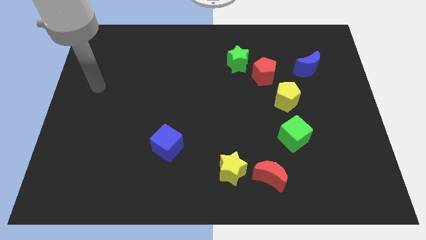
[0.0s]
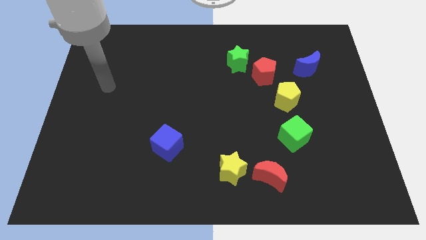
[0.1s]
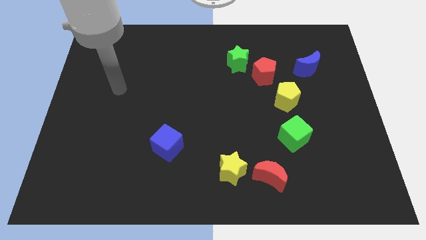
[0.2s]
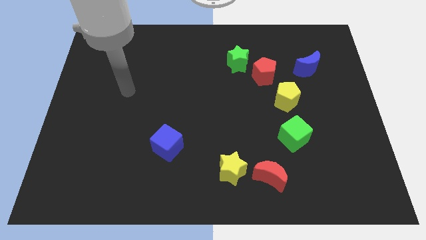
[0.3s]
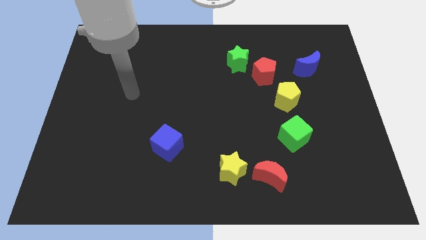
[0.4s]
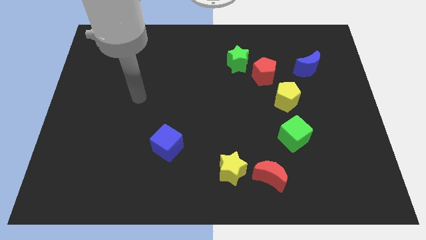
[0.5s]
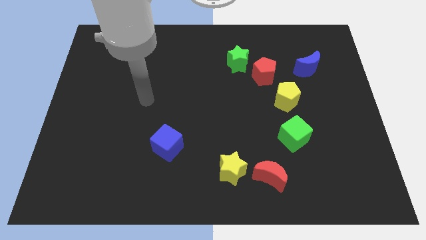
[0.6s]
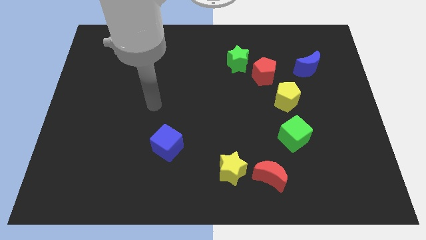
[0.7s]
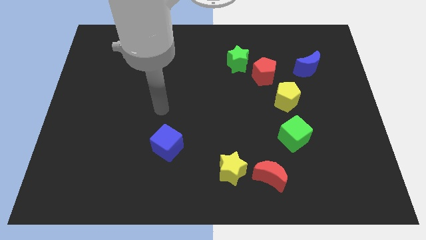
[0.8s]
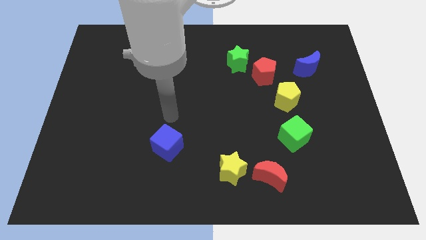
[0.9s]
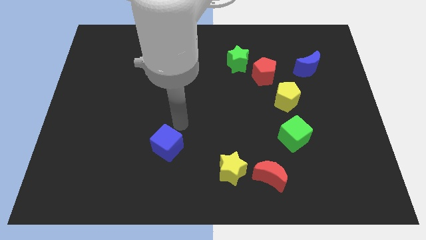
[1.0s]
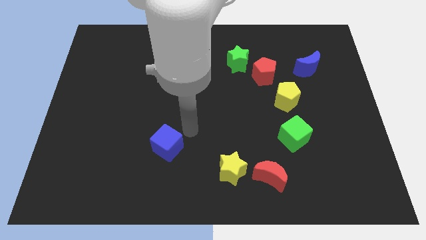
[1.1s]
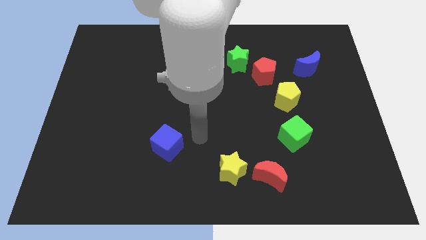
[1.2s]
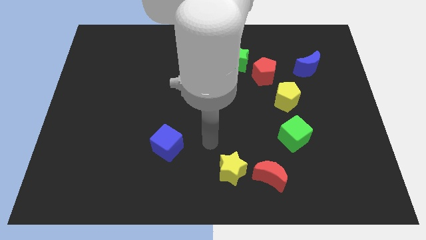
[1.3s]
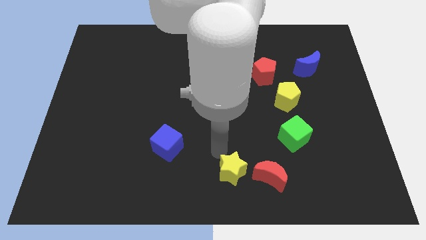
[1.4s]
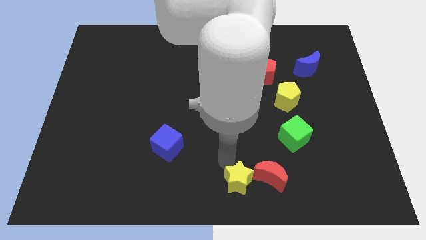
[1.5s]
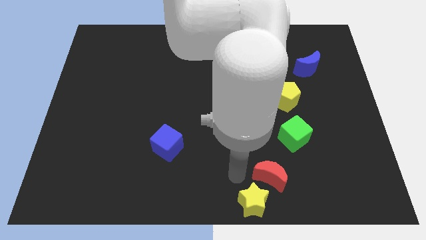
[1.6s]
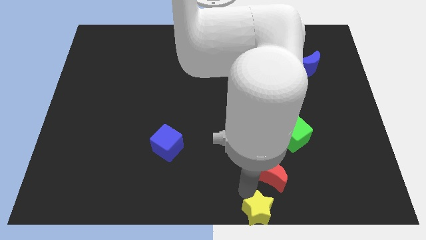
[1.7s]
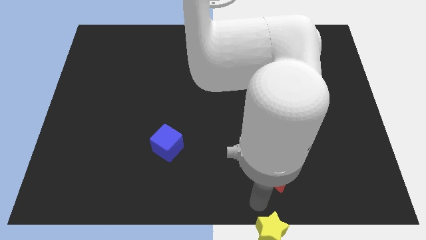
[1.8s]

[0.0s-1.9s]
move the red moon away from the yellow star

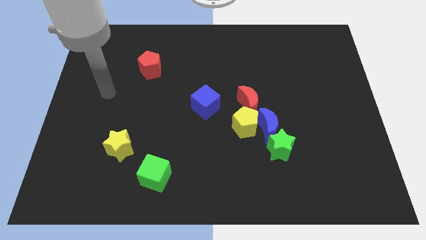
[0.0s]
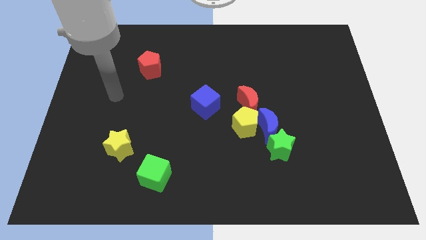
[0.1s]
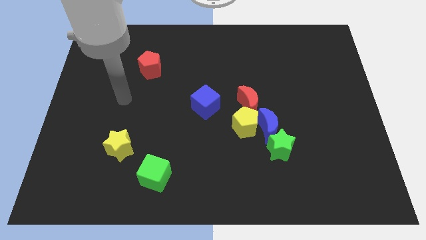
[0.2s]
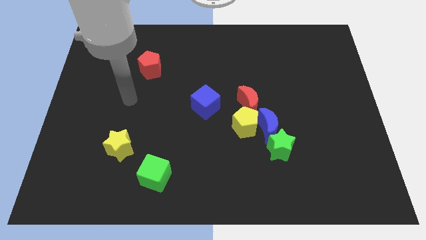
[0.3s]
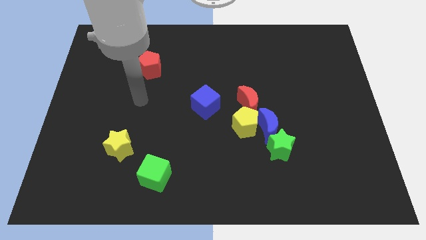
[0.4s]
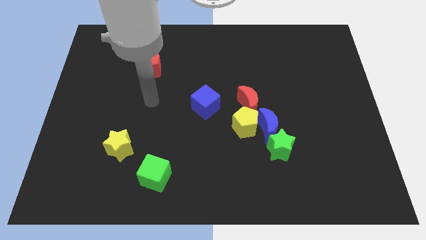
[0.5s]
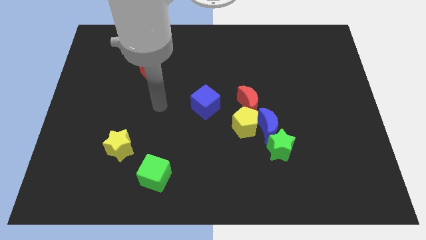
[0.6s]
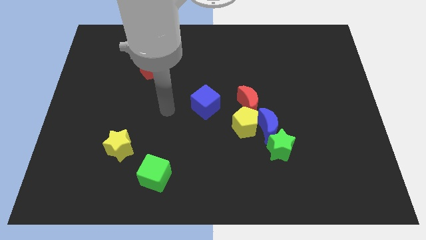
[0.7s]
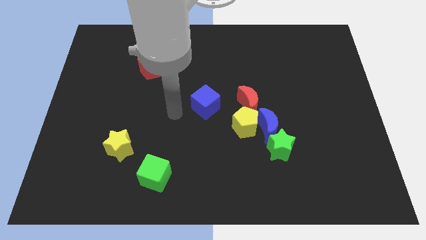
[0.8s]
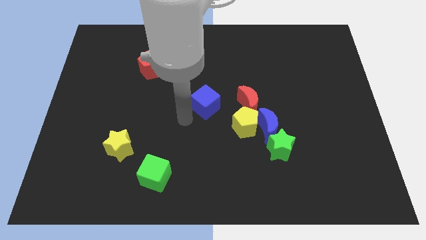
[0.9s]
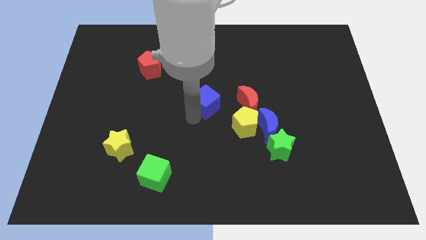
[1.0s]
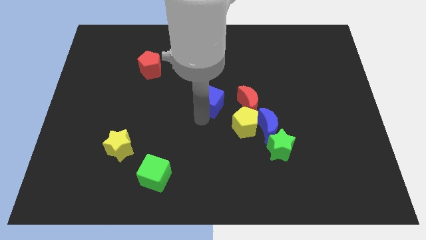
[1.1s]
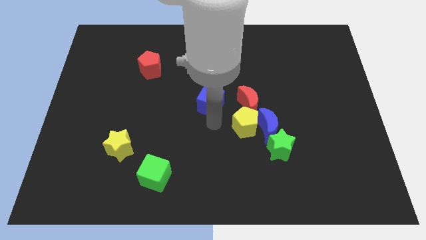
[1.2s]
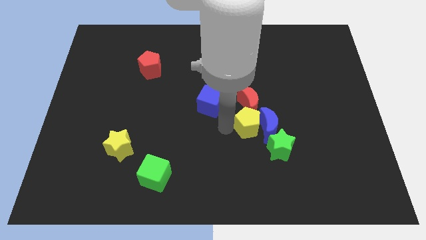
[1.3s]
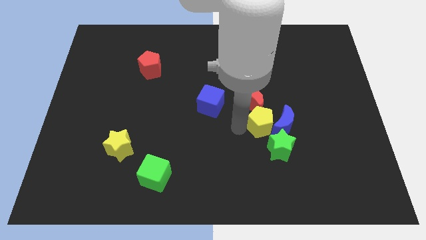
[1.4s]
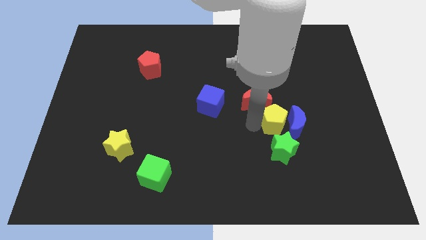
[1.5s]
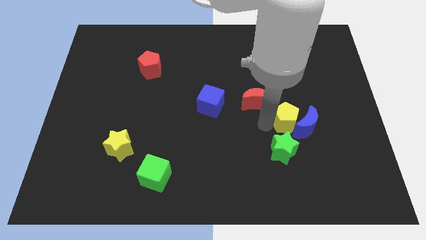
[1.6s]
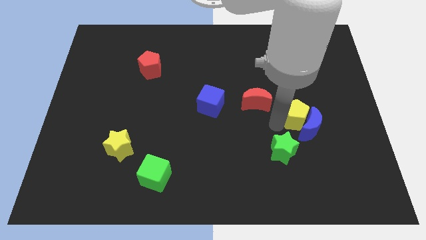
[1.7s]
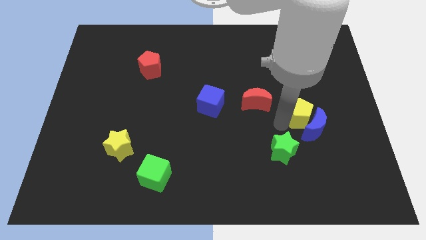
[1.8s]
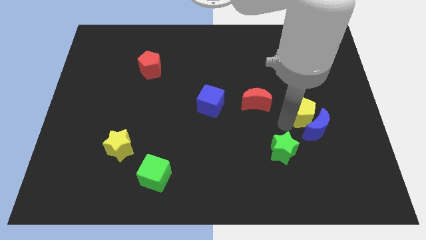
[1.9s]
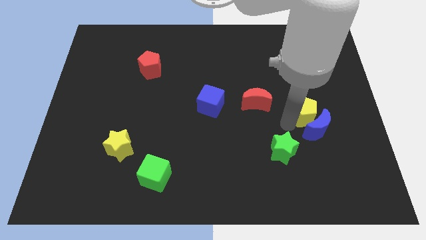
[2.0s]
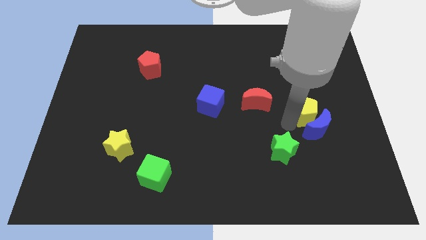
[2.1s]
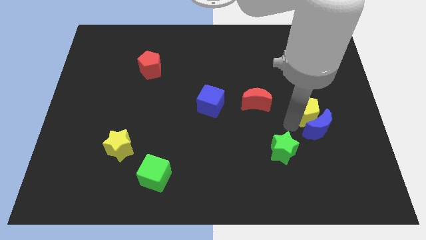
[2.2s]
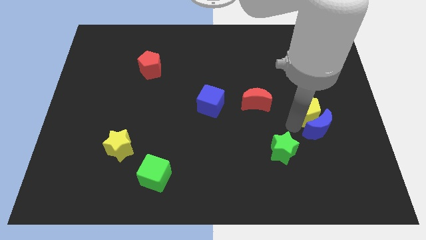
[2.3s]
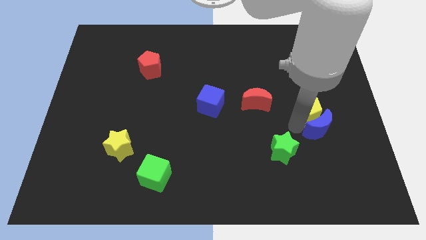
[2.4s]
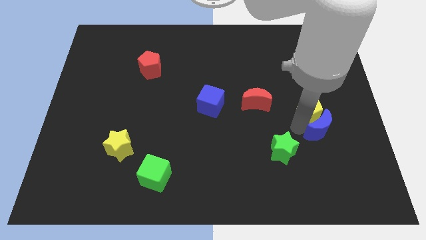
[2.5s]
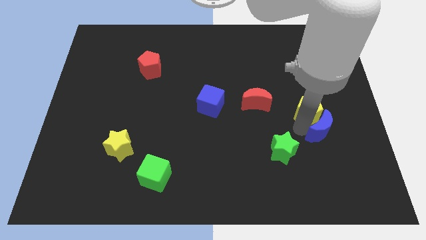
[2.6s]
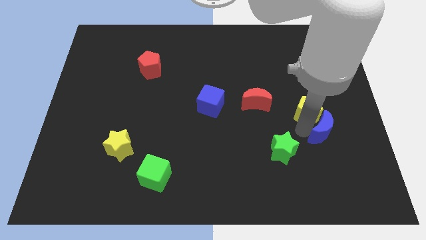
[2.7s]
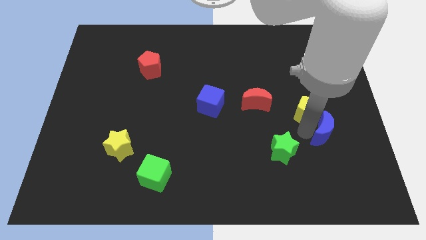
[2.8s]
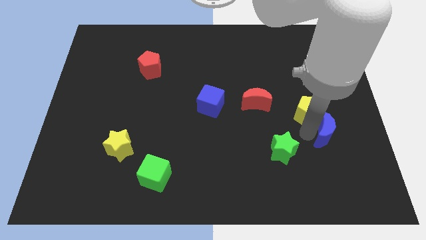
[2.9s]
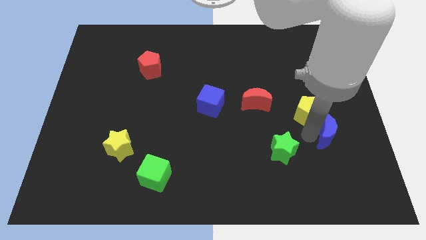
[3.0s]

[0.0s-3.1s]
move the blue moon away from the yellow pentagon, green star, and red moon

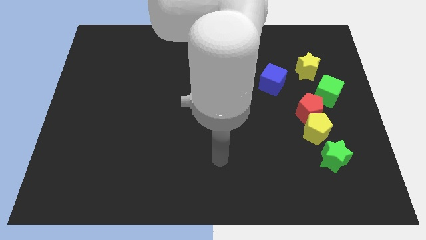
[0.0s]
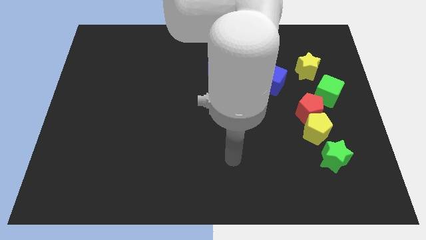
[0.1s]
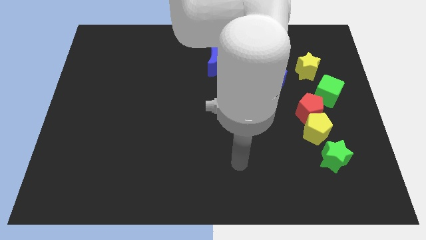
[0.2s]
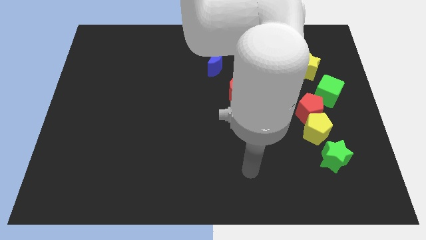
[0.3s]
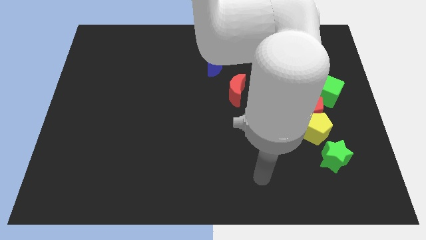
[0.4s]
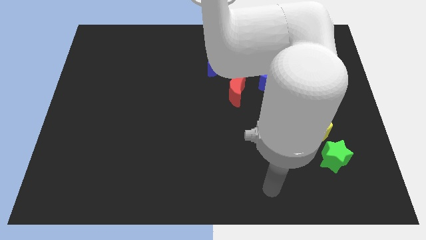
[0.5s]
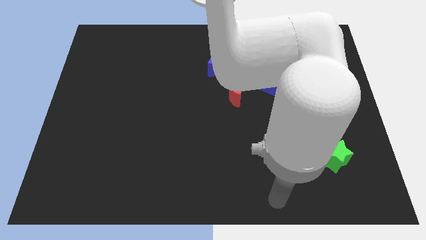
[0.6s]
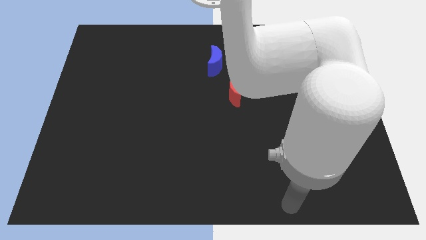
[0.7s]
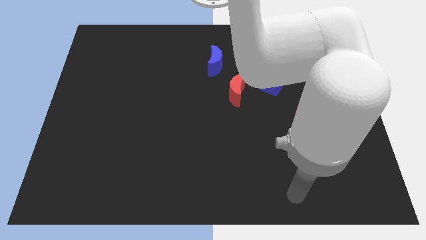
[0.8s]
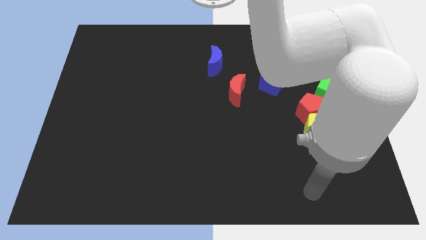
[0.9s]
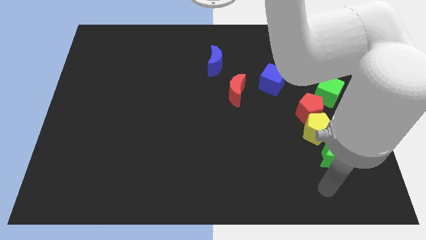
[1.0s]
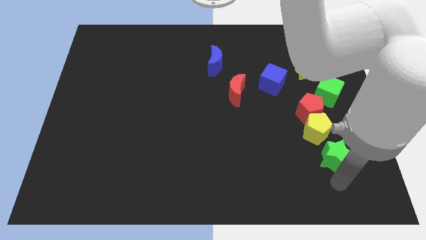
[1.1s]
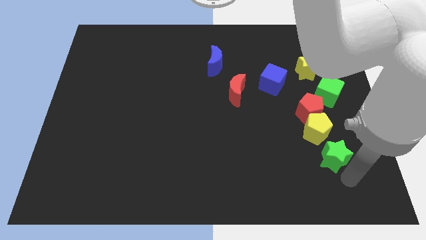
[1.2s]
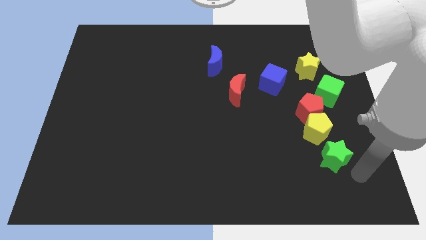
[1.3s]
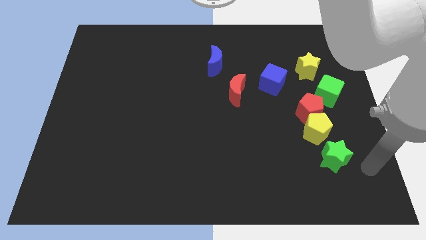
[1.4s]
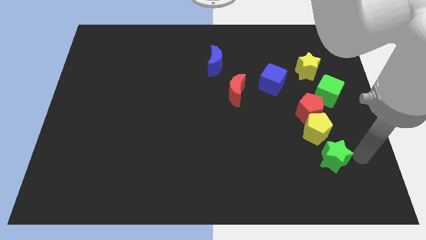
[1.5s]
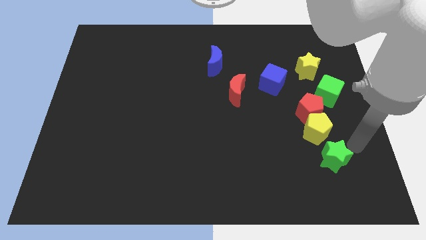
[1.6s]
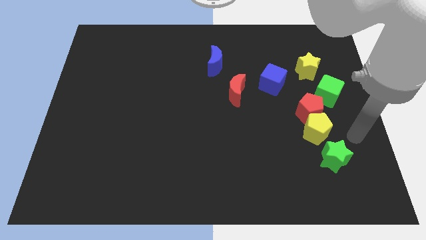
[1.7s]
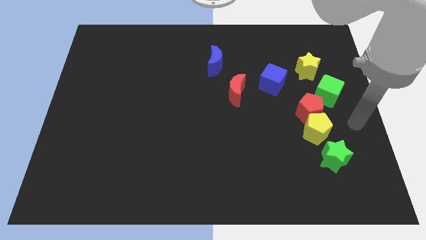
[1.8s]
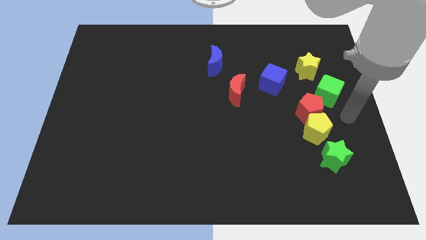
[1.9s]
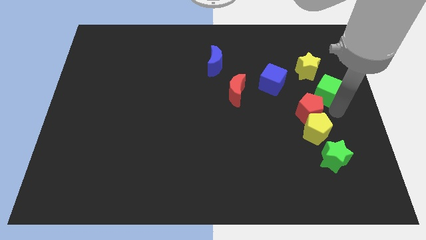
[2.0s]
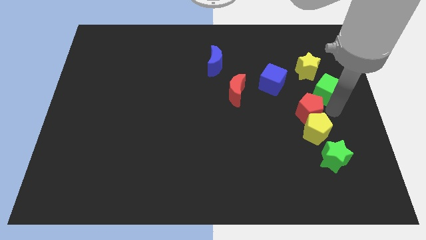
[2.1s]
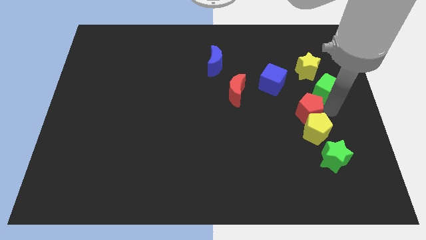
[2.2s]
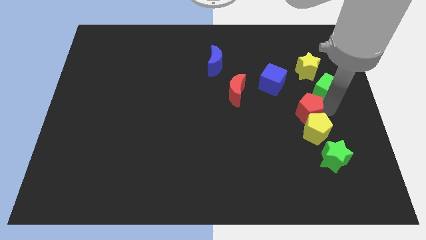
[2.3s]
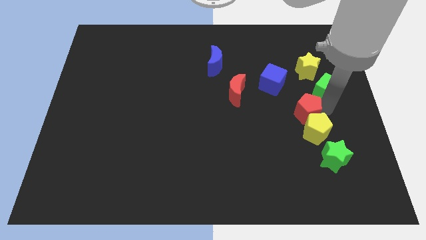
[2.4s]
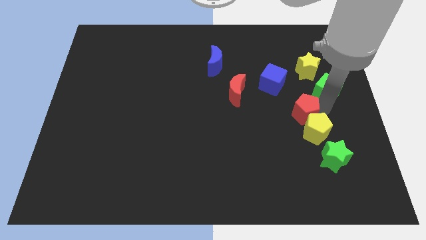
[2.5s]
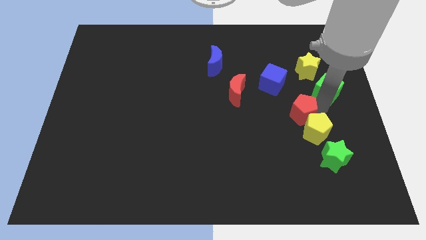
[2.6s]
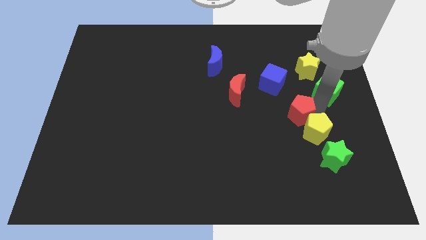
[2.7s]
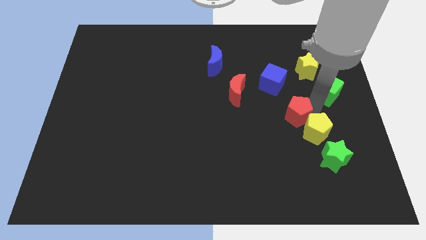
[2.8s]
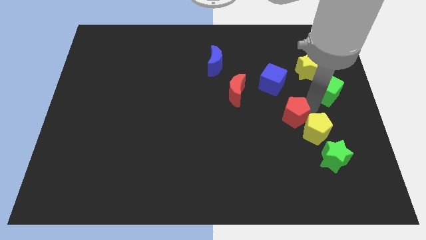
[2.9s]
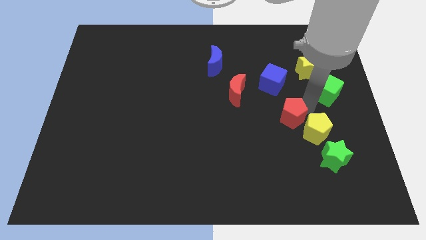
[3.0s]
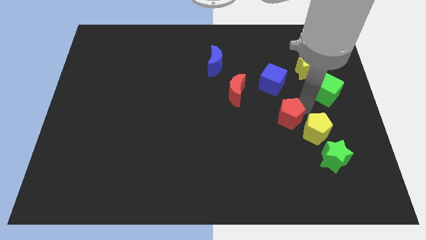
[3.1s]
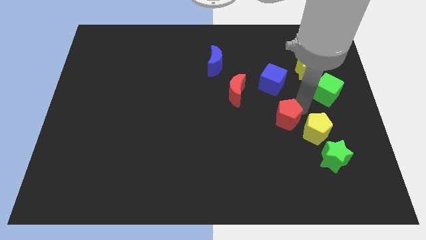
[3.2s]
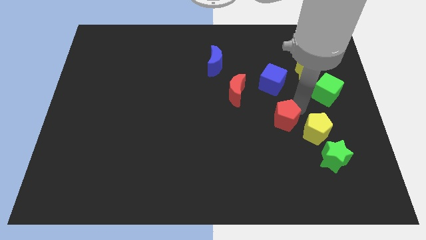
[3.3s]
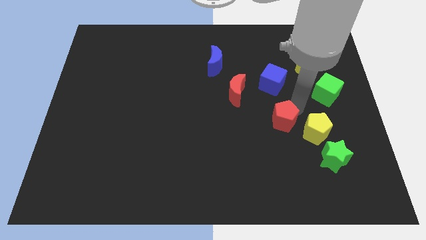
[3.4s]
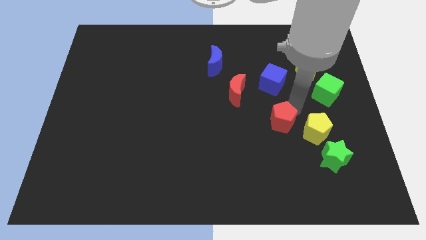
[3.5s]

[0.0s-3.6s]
pull the red pentagon apart from the yellow pentagon and green cube

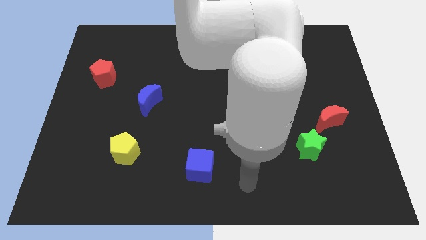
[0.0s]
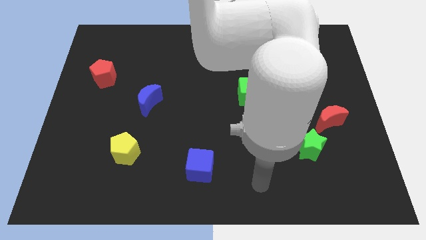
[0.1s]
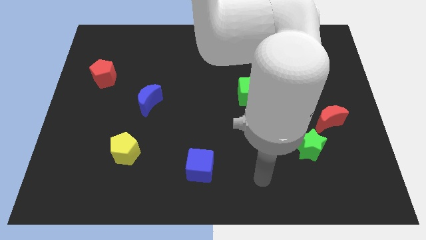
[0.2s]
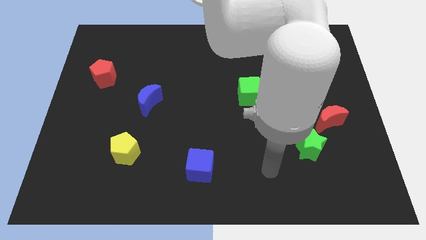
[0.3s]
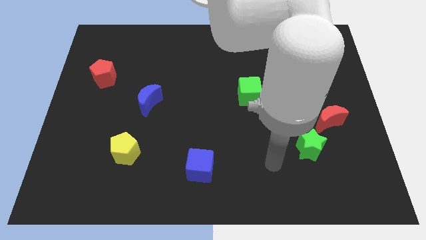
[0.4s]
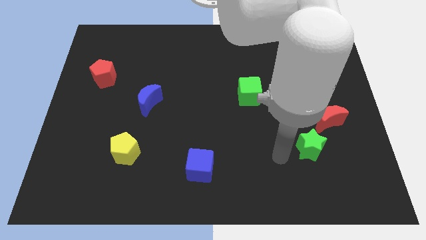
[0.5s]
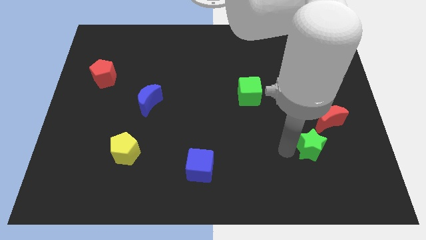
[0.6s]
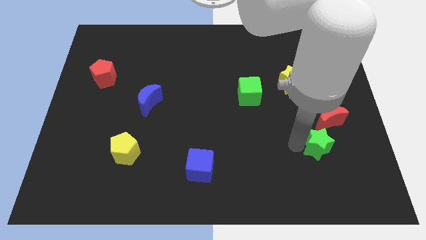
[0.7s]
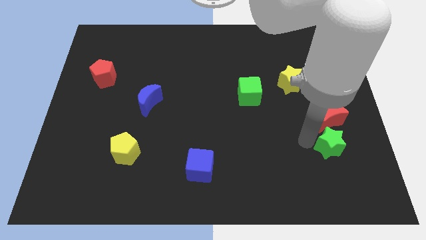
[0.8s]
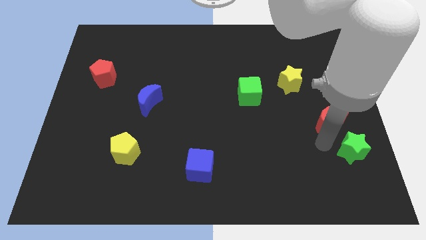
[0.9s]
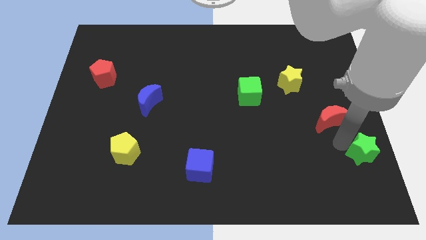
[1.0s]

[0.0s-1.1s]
pull the red moon apart from the green star
